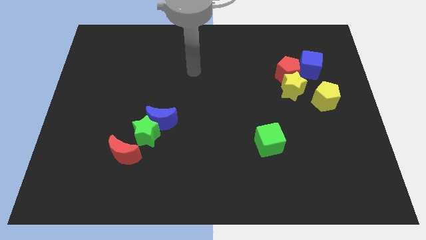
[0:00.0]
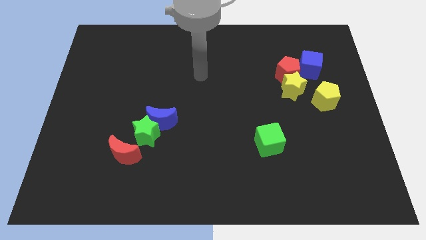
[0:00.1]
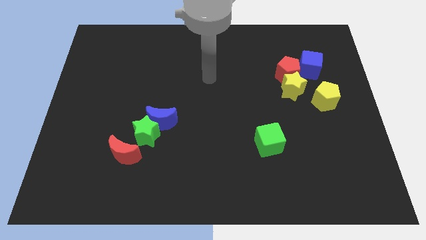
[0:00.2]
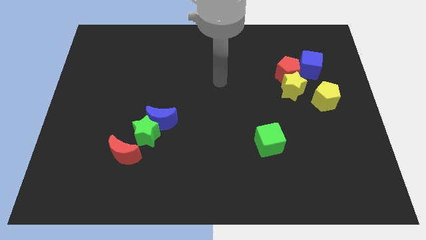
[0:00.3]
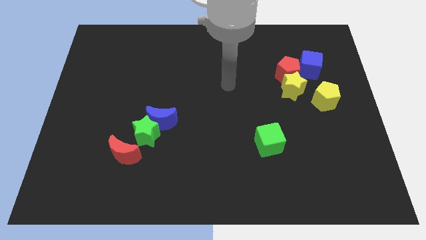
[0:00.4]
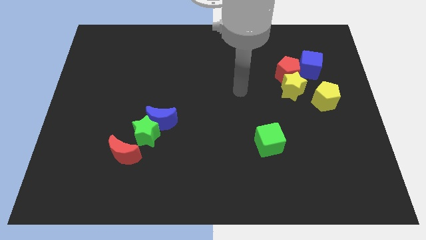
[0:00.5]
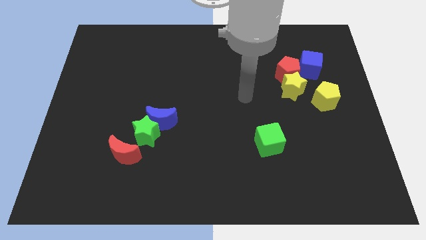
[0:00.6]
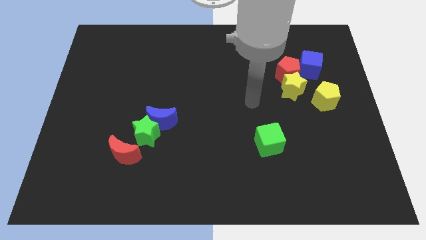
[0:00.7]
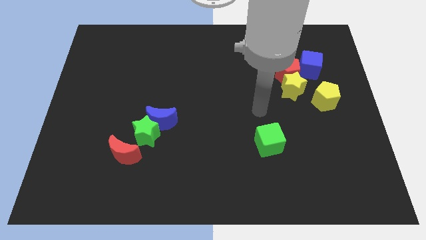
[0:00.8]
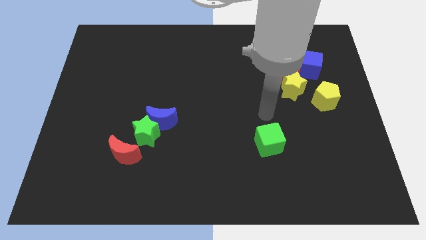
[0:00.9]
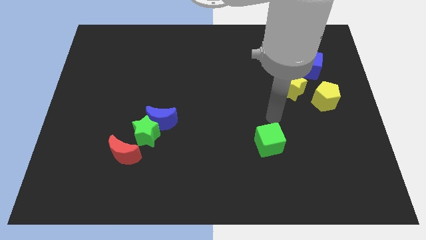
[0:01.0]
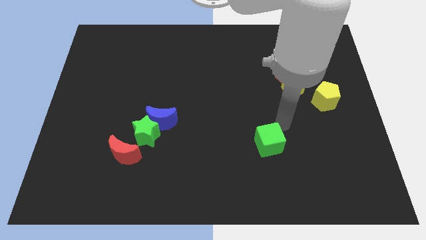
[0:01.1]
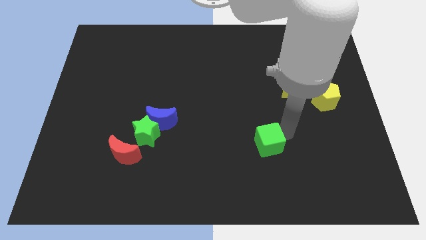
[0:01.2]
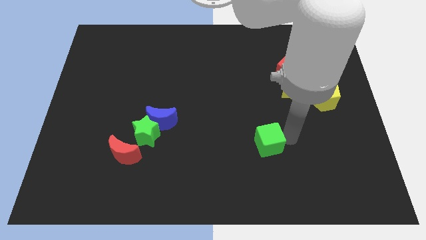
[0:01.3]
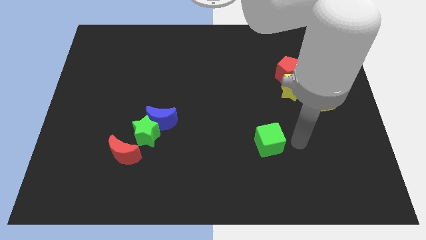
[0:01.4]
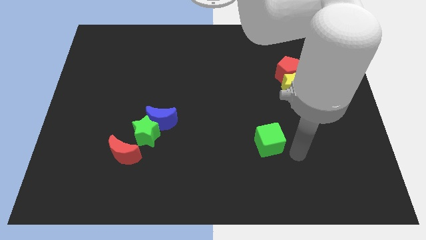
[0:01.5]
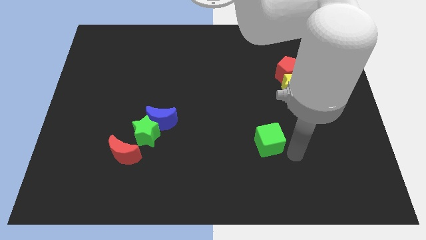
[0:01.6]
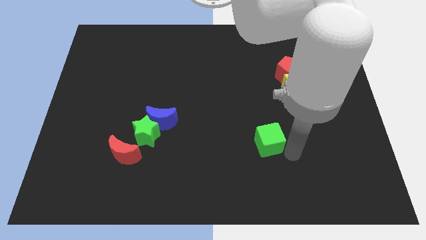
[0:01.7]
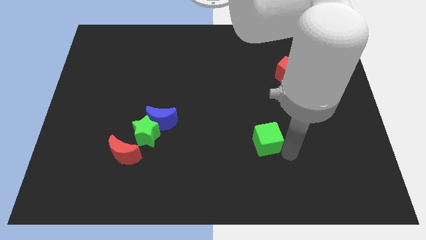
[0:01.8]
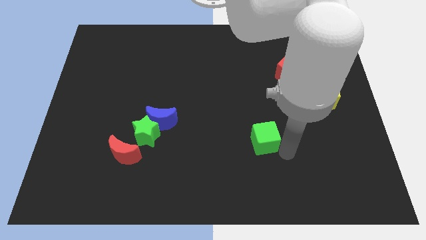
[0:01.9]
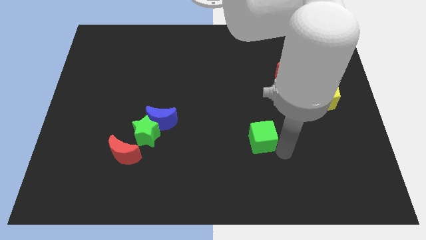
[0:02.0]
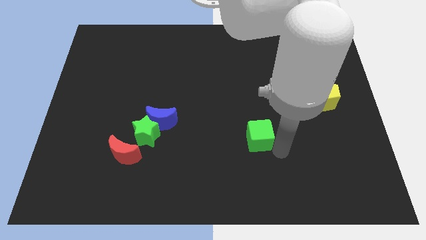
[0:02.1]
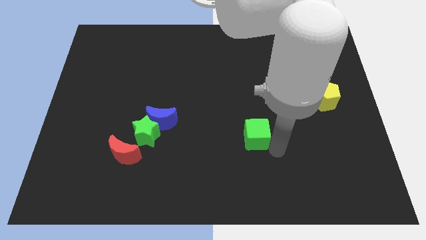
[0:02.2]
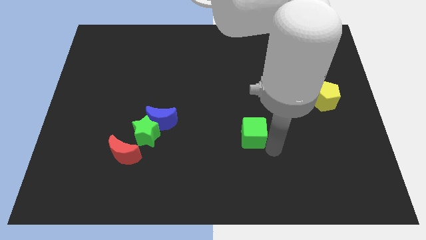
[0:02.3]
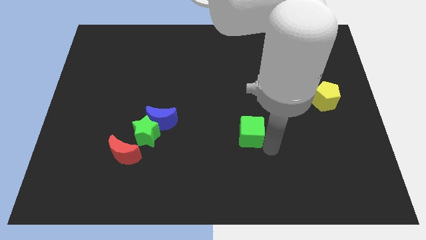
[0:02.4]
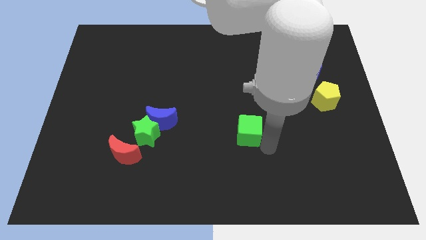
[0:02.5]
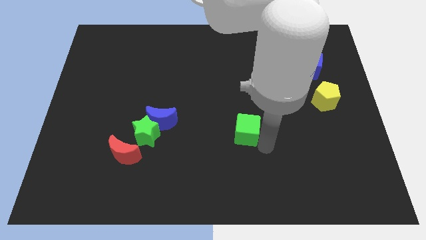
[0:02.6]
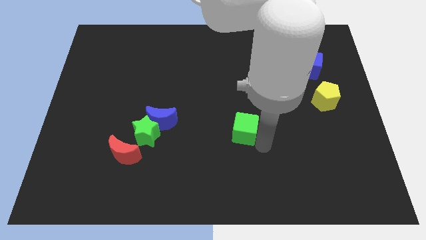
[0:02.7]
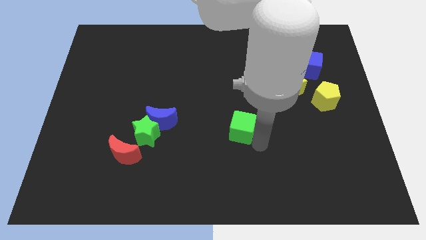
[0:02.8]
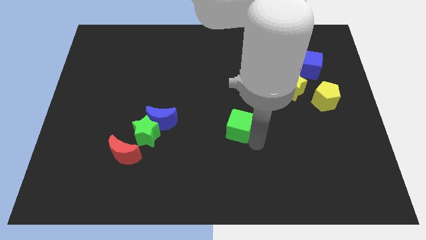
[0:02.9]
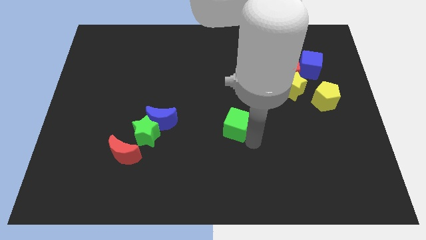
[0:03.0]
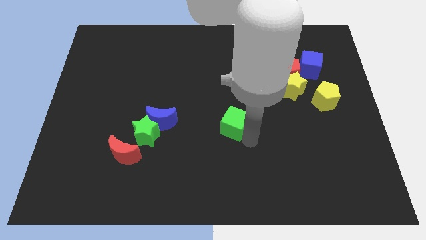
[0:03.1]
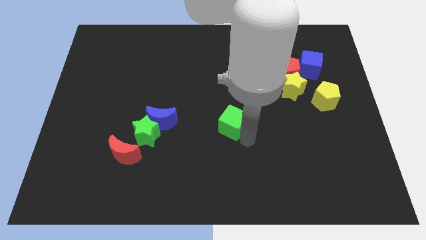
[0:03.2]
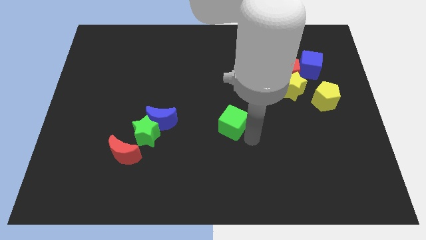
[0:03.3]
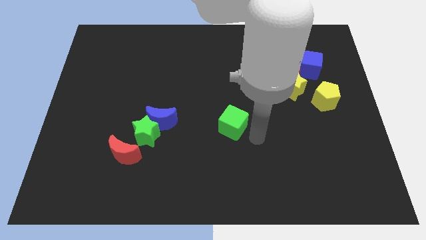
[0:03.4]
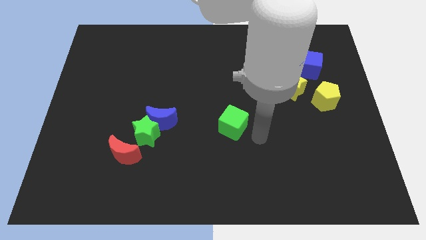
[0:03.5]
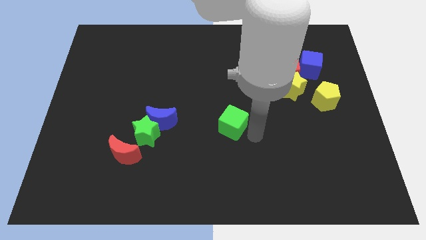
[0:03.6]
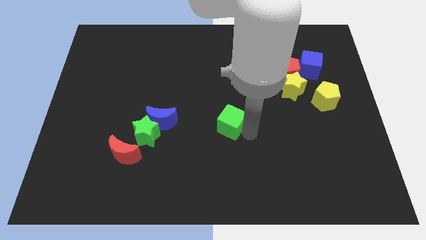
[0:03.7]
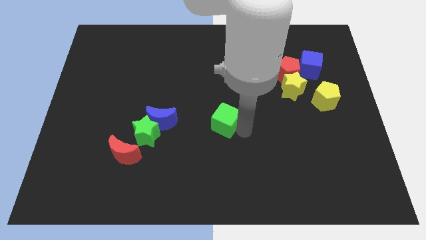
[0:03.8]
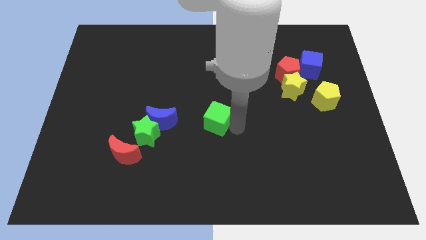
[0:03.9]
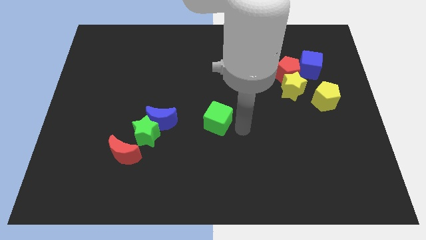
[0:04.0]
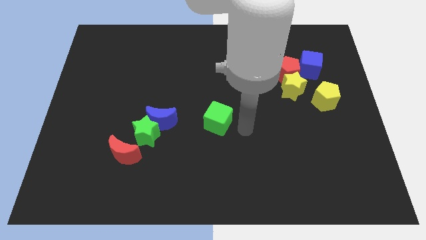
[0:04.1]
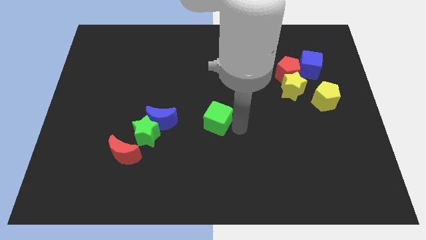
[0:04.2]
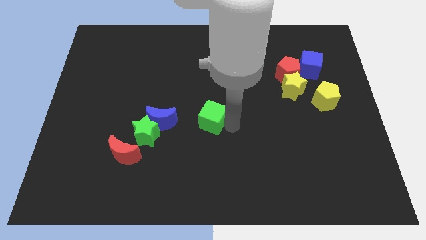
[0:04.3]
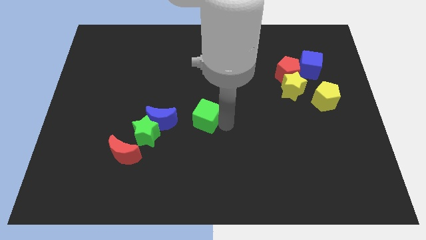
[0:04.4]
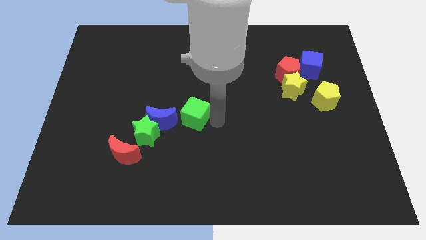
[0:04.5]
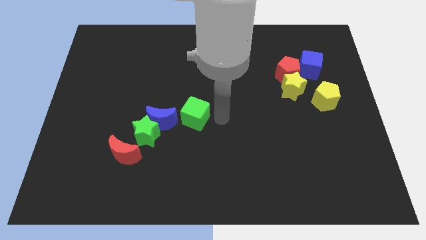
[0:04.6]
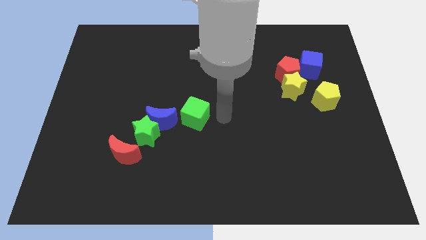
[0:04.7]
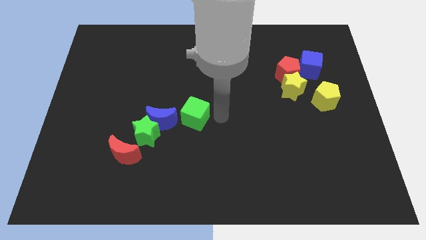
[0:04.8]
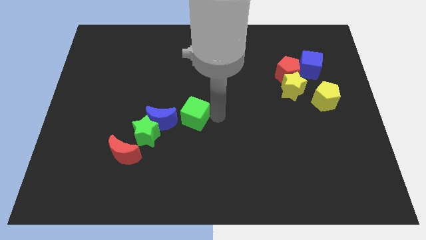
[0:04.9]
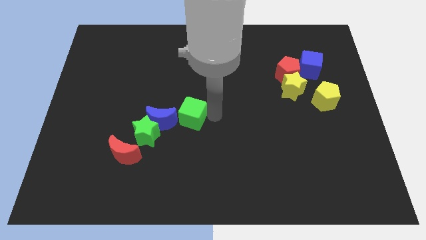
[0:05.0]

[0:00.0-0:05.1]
slide the green cube to the top right side of the green star

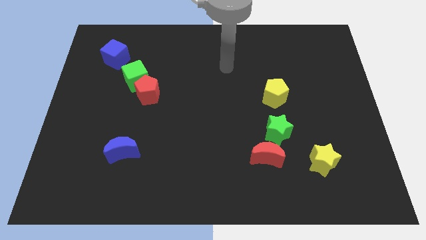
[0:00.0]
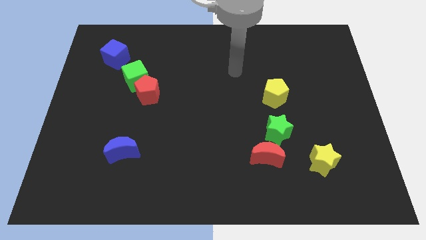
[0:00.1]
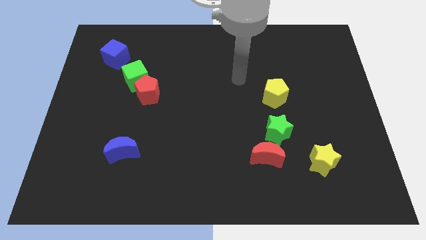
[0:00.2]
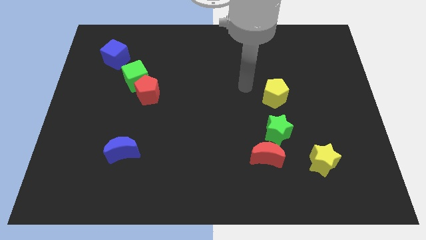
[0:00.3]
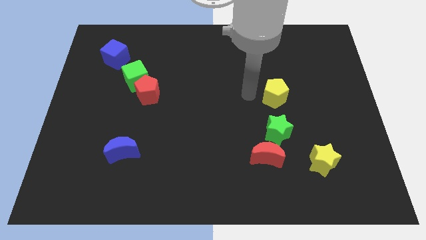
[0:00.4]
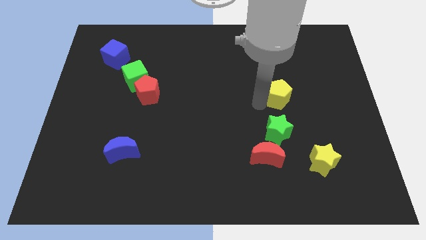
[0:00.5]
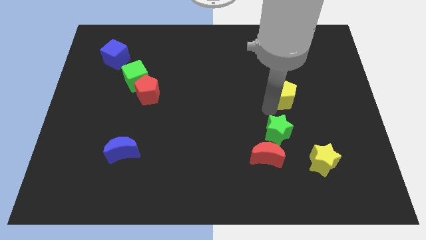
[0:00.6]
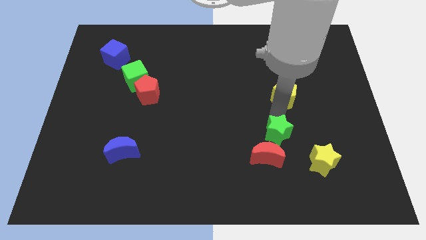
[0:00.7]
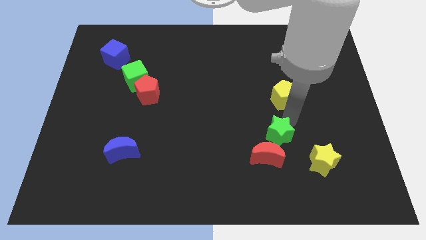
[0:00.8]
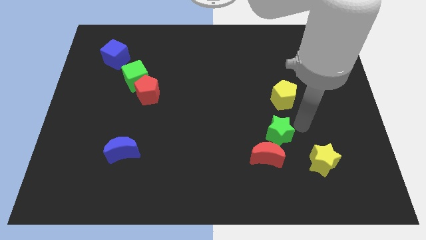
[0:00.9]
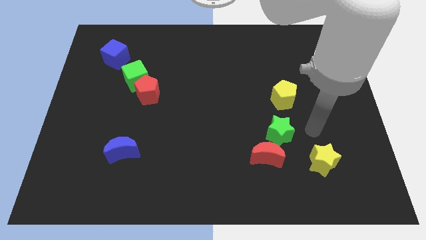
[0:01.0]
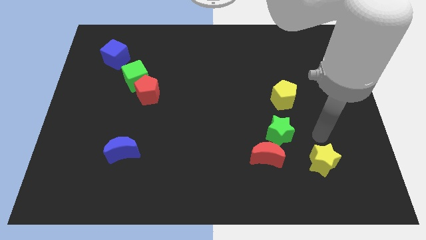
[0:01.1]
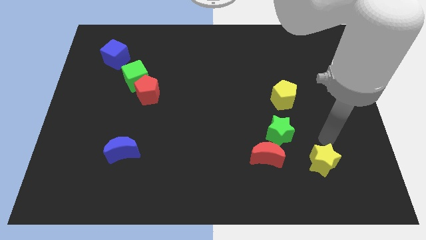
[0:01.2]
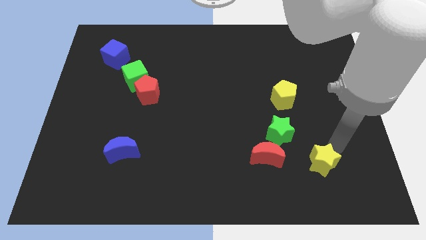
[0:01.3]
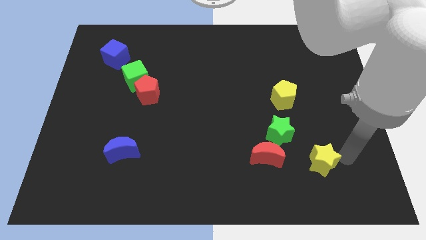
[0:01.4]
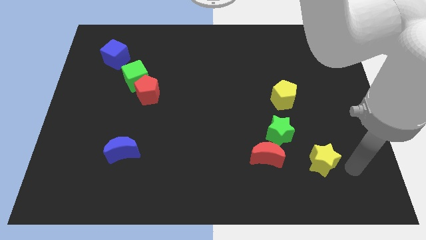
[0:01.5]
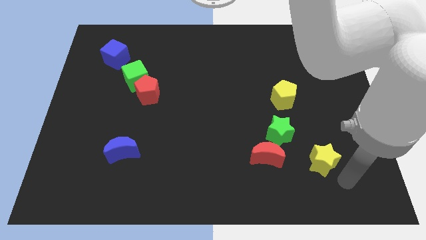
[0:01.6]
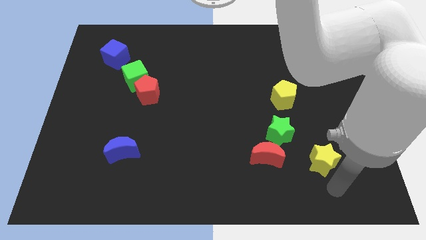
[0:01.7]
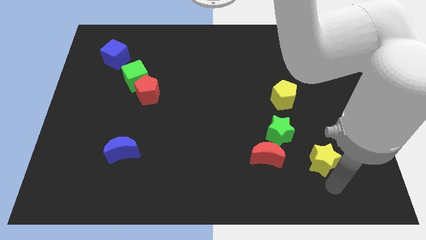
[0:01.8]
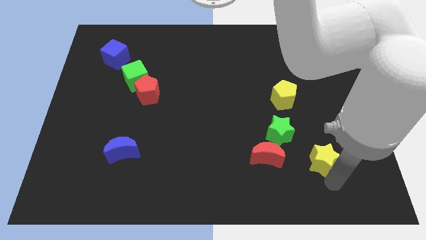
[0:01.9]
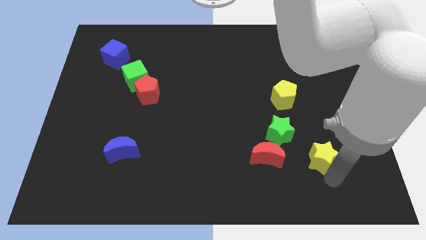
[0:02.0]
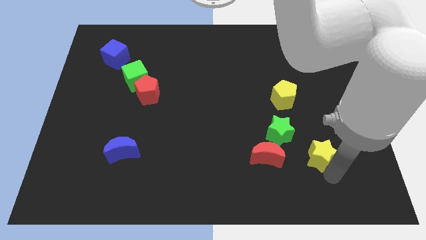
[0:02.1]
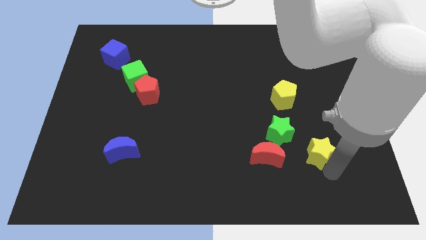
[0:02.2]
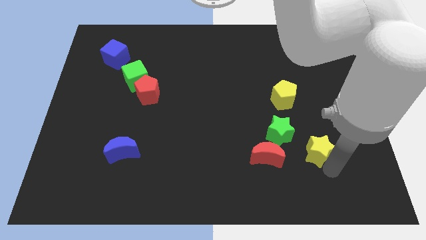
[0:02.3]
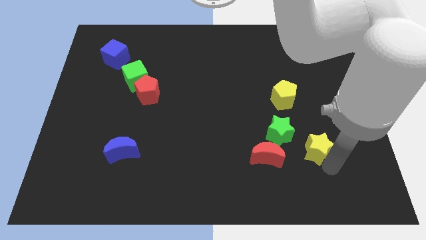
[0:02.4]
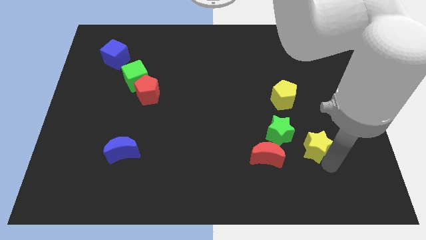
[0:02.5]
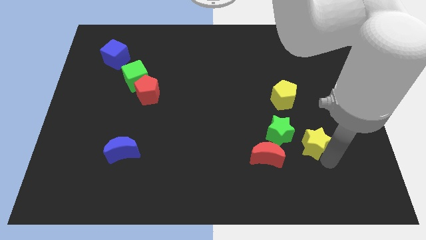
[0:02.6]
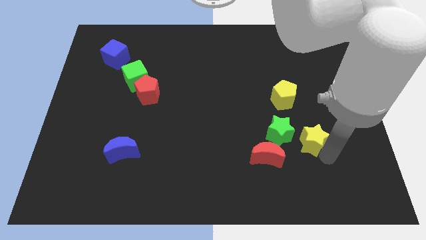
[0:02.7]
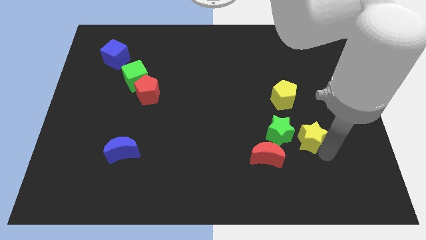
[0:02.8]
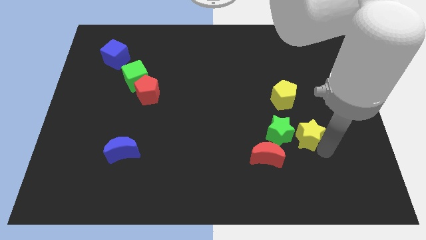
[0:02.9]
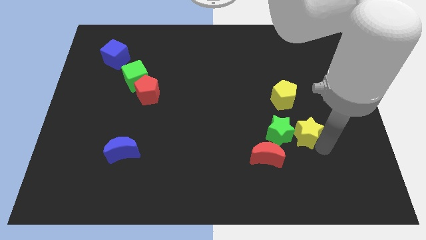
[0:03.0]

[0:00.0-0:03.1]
slide the yellow star to the bottom right of the yellow pentagon
